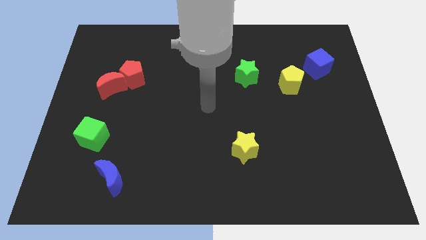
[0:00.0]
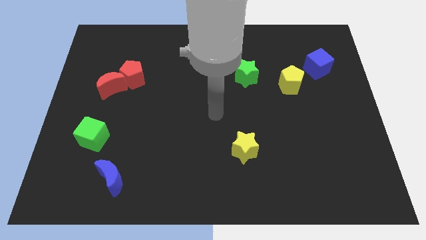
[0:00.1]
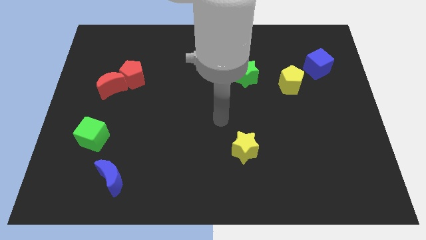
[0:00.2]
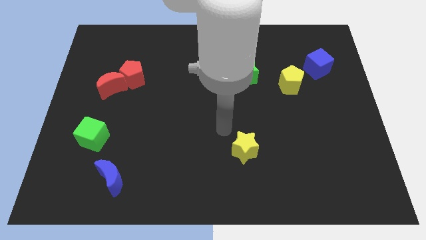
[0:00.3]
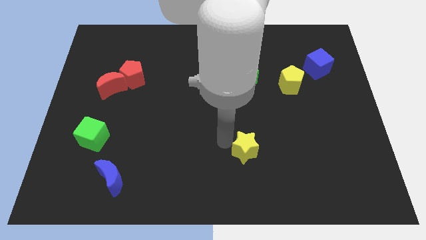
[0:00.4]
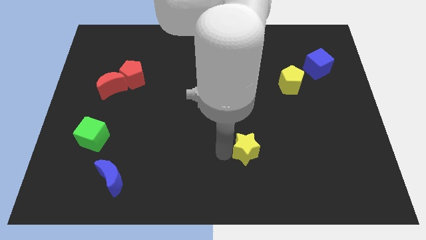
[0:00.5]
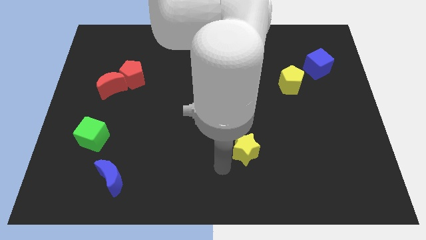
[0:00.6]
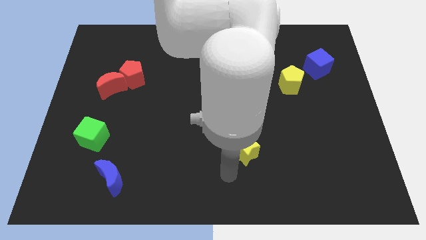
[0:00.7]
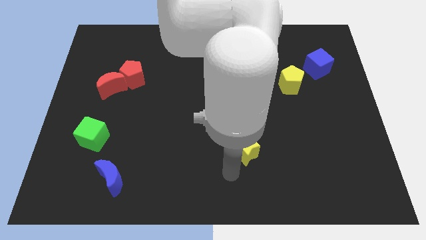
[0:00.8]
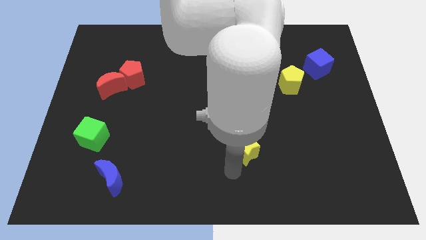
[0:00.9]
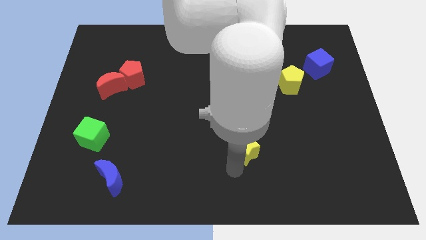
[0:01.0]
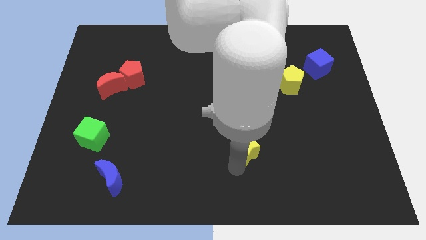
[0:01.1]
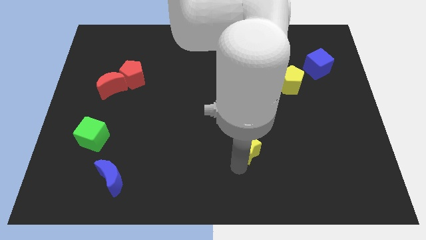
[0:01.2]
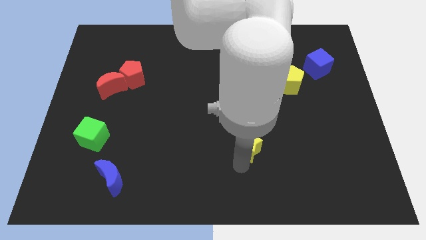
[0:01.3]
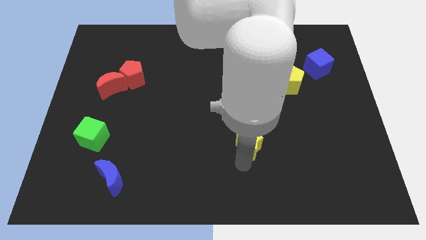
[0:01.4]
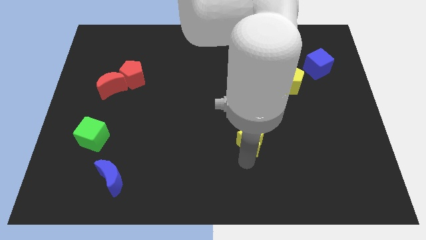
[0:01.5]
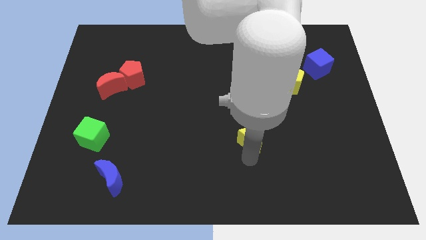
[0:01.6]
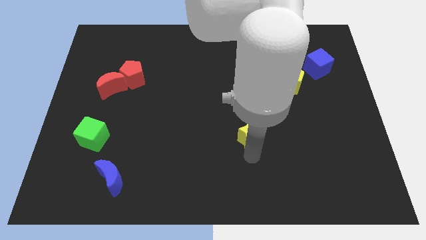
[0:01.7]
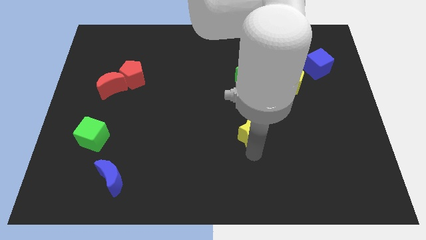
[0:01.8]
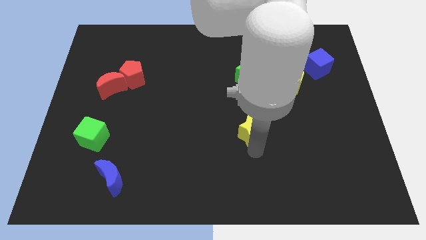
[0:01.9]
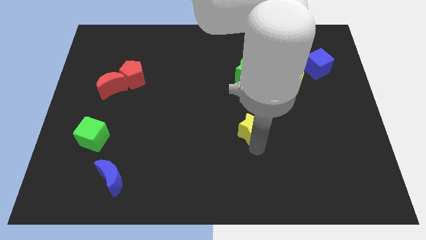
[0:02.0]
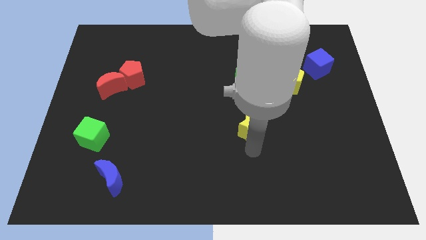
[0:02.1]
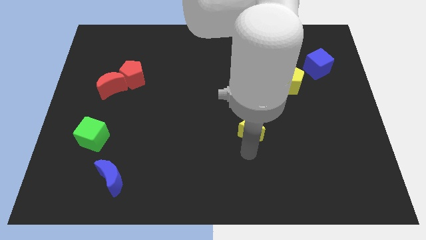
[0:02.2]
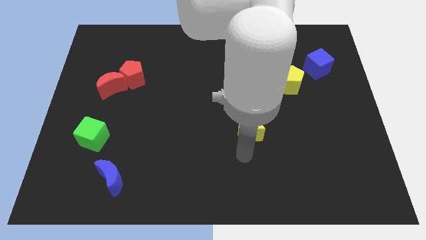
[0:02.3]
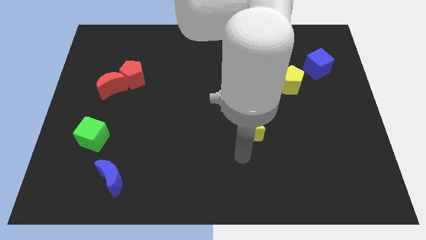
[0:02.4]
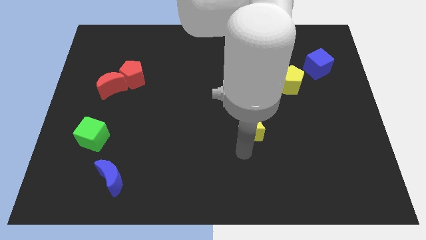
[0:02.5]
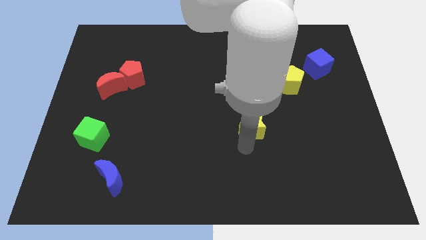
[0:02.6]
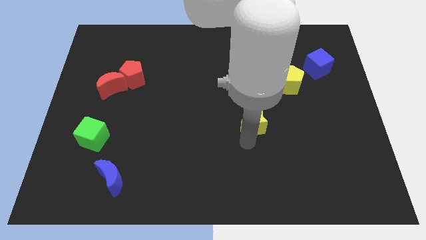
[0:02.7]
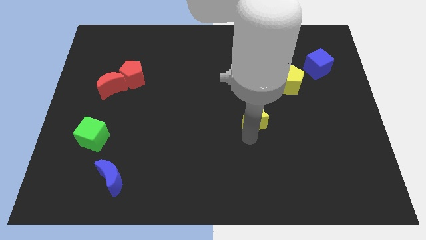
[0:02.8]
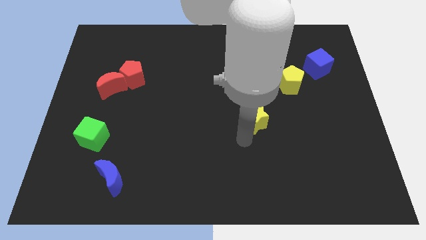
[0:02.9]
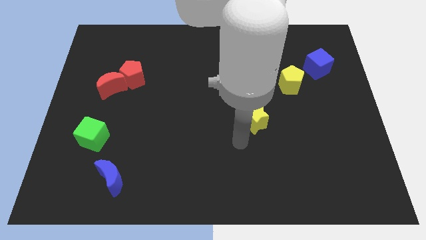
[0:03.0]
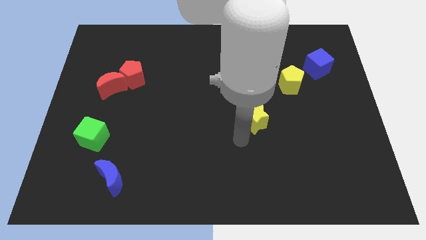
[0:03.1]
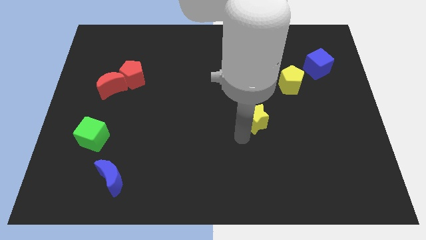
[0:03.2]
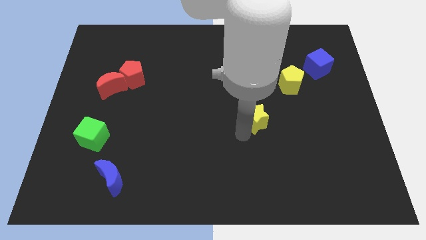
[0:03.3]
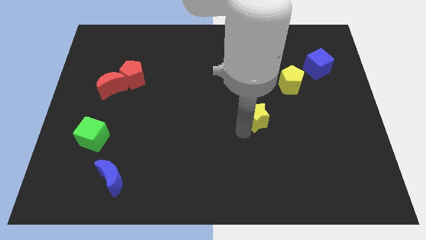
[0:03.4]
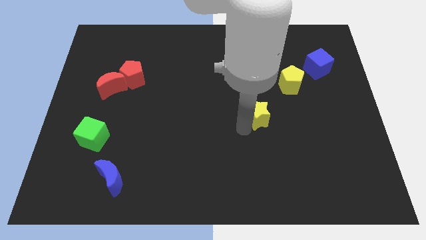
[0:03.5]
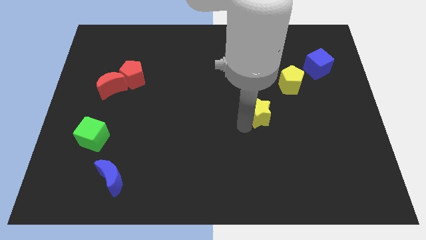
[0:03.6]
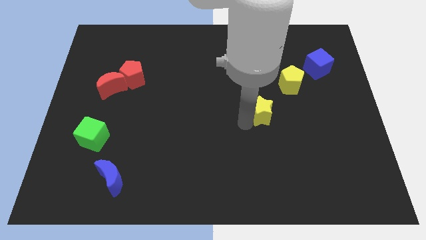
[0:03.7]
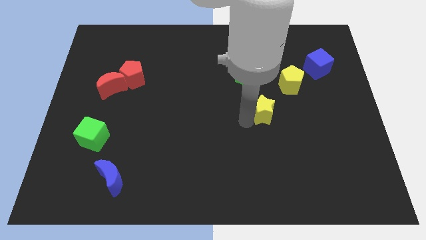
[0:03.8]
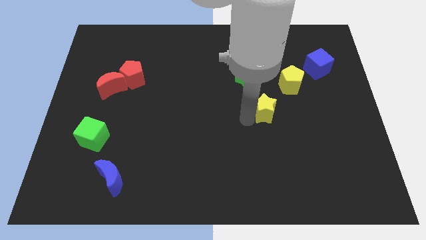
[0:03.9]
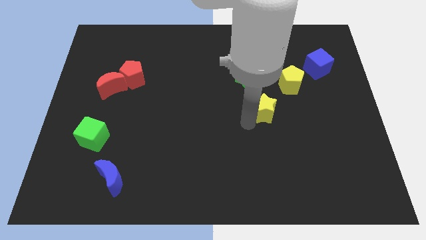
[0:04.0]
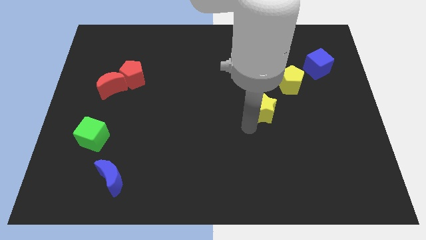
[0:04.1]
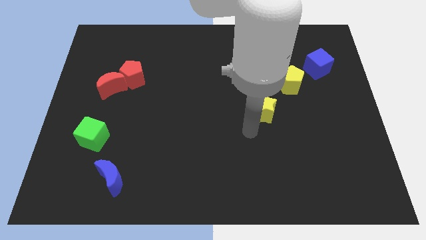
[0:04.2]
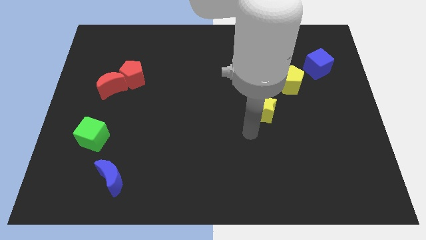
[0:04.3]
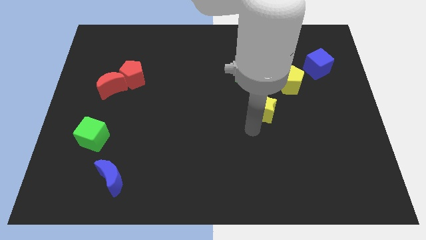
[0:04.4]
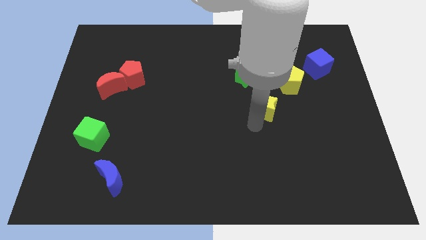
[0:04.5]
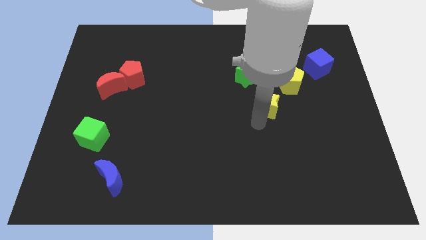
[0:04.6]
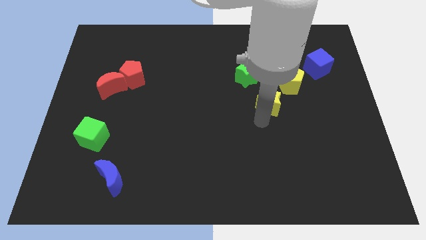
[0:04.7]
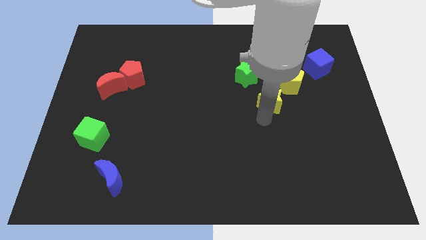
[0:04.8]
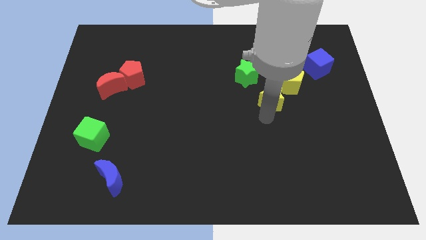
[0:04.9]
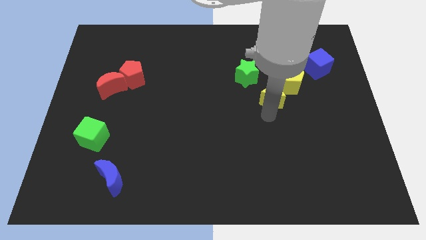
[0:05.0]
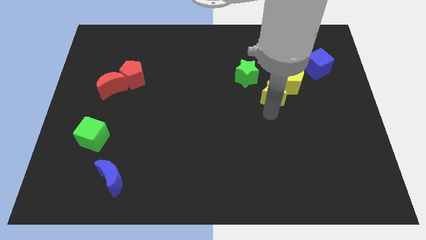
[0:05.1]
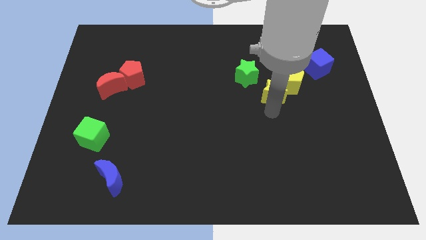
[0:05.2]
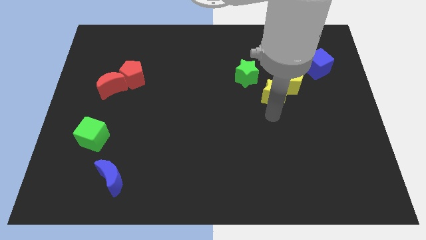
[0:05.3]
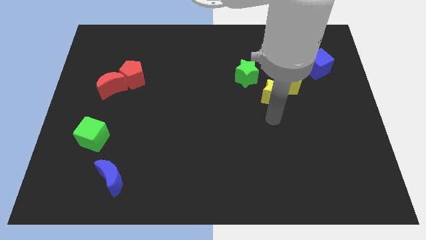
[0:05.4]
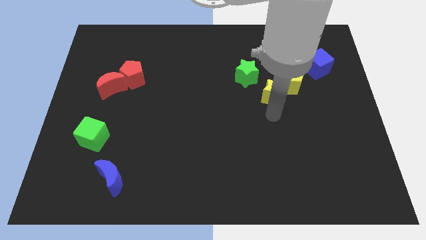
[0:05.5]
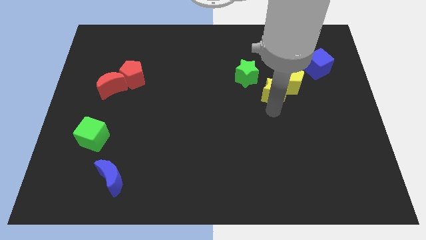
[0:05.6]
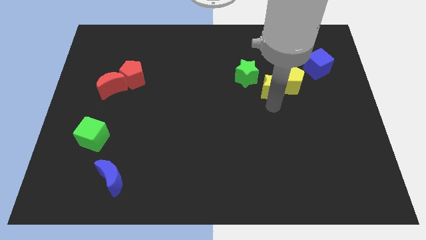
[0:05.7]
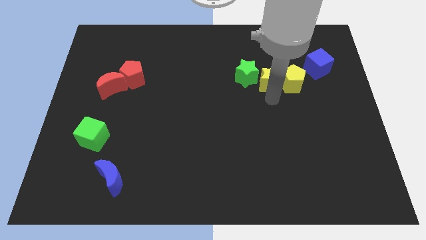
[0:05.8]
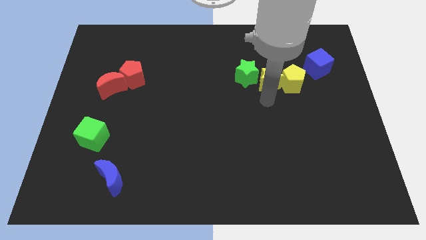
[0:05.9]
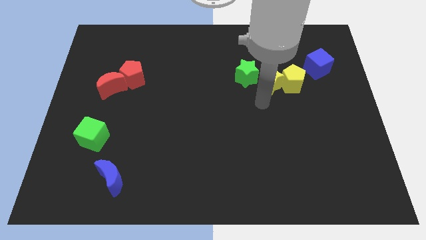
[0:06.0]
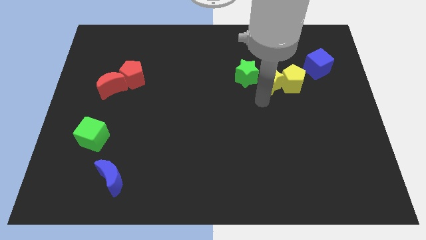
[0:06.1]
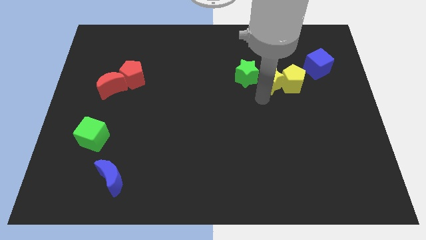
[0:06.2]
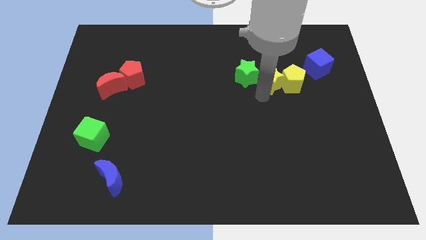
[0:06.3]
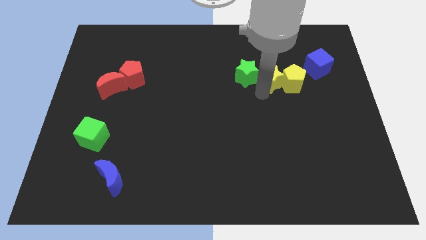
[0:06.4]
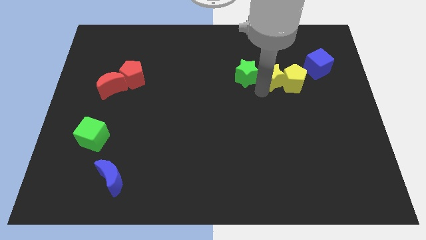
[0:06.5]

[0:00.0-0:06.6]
move the yellow star to the left of the blue cube
